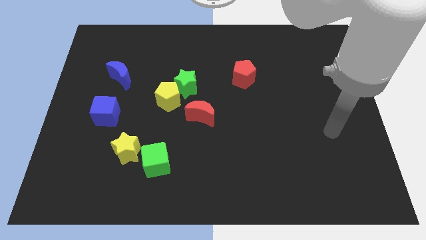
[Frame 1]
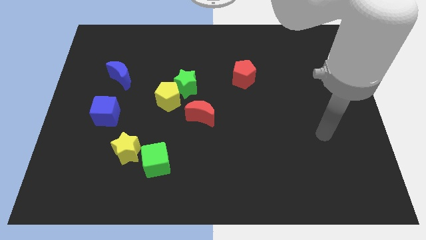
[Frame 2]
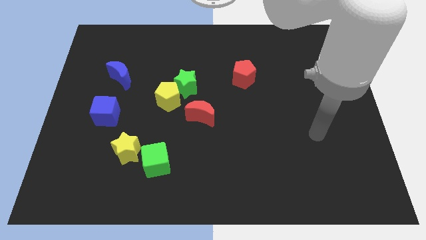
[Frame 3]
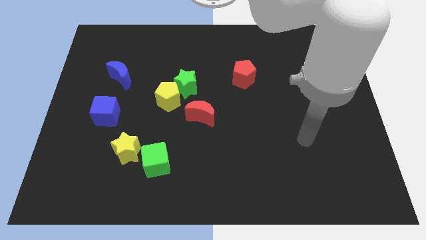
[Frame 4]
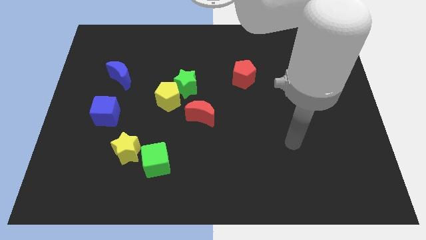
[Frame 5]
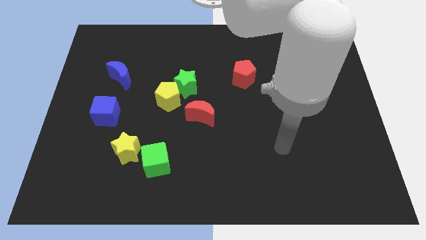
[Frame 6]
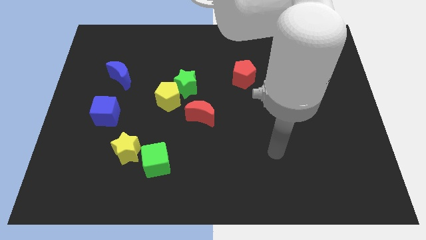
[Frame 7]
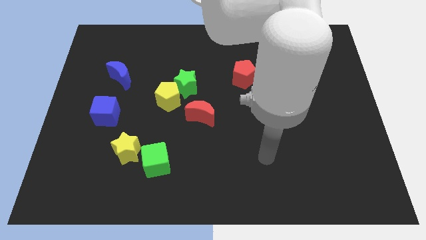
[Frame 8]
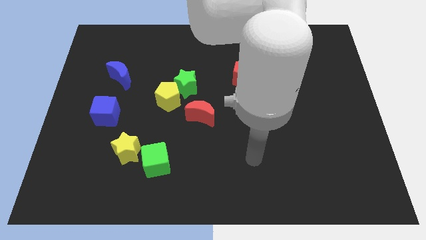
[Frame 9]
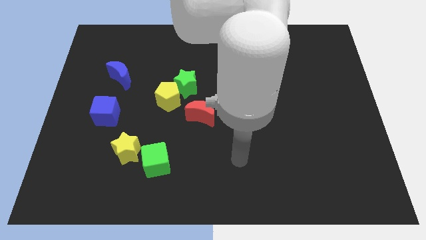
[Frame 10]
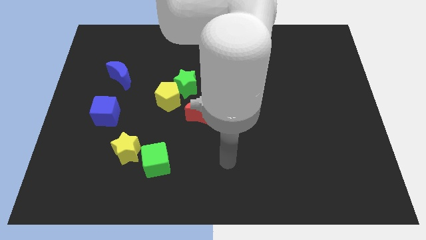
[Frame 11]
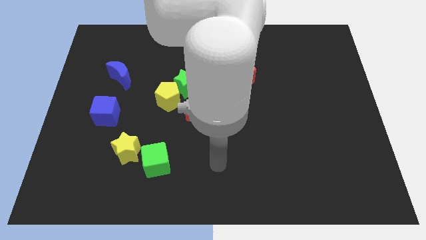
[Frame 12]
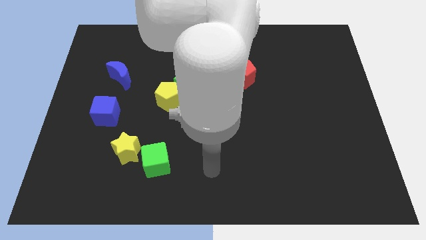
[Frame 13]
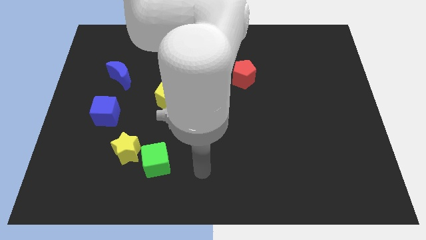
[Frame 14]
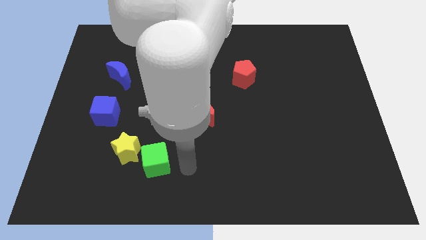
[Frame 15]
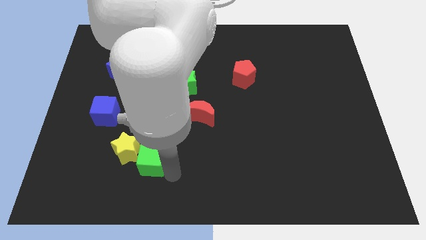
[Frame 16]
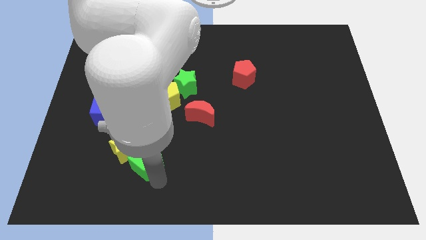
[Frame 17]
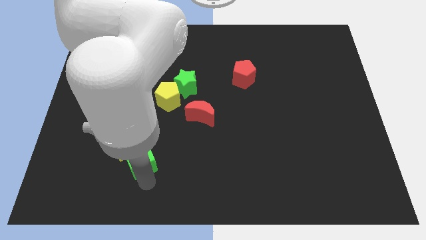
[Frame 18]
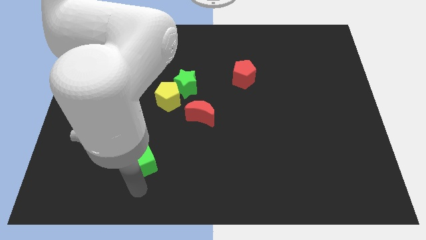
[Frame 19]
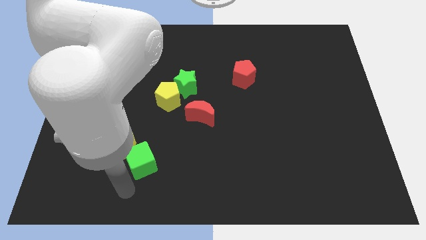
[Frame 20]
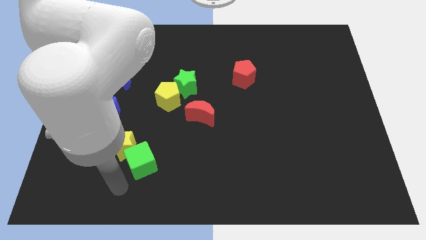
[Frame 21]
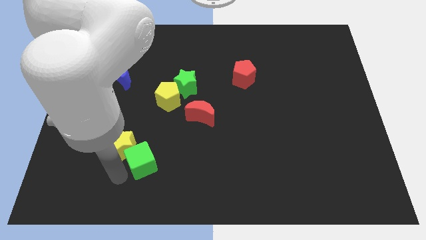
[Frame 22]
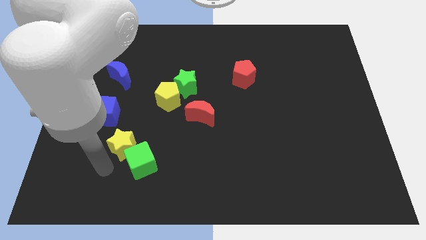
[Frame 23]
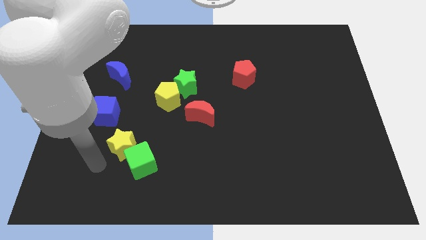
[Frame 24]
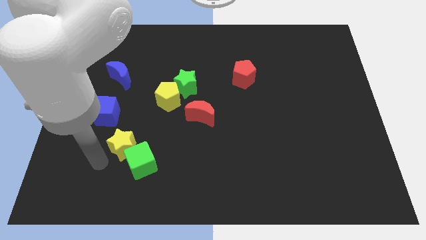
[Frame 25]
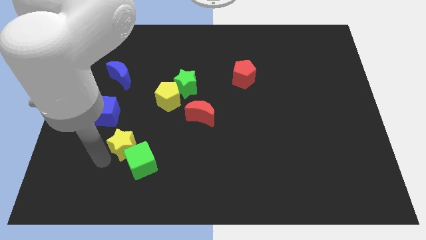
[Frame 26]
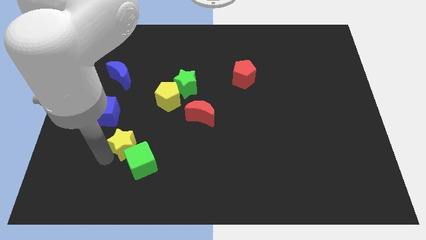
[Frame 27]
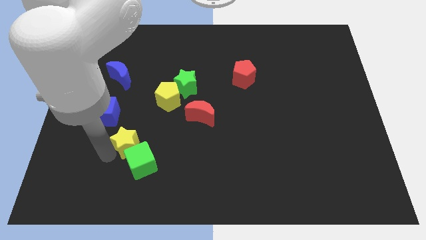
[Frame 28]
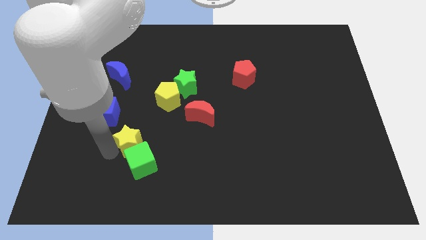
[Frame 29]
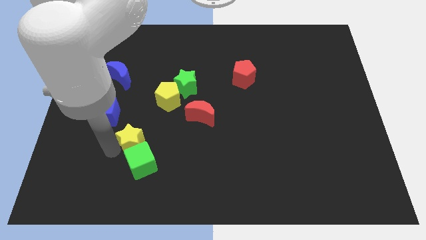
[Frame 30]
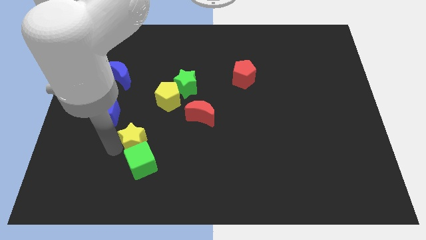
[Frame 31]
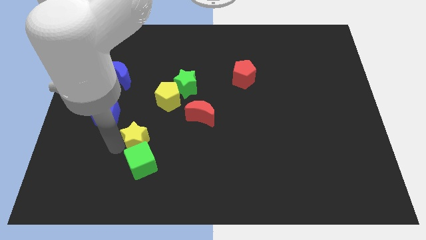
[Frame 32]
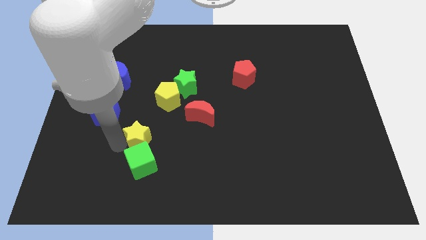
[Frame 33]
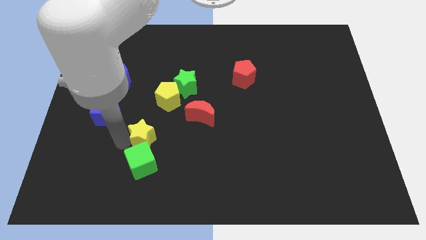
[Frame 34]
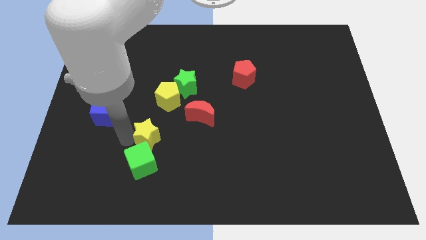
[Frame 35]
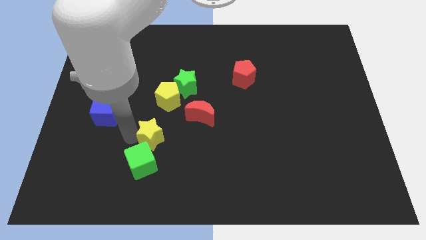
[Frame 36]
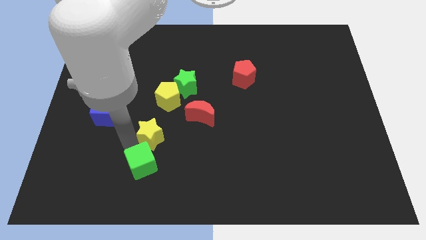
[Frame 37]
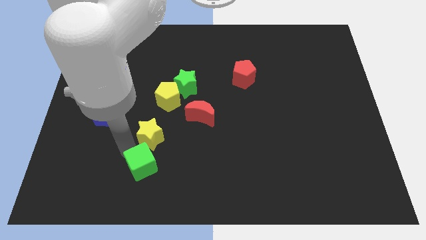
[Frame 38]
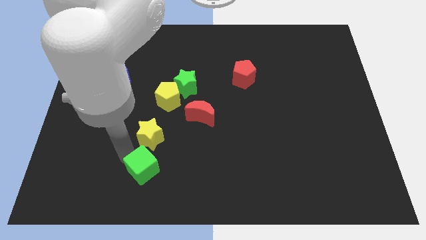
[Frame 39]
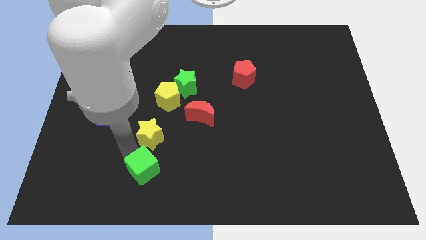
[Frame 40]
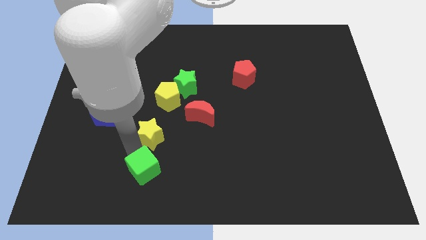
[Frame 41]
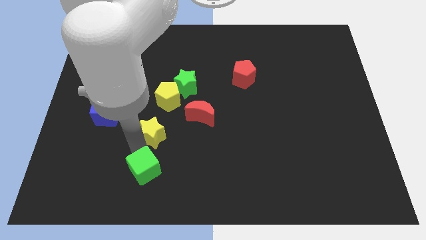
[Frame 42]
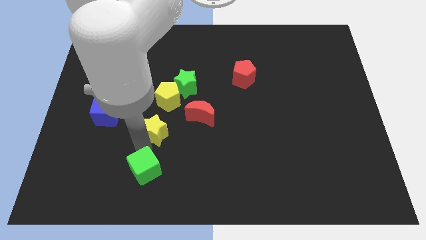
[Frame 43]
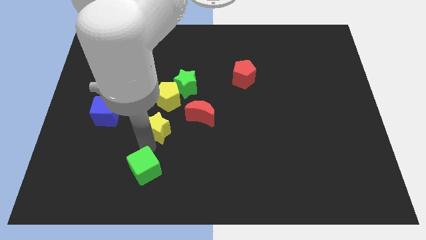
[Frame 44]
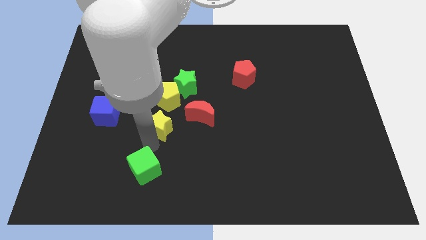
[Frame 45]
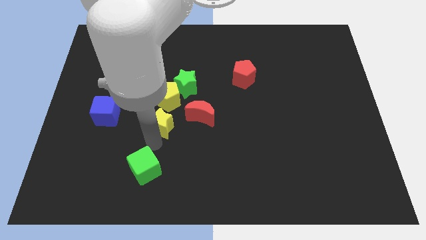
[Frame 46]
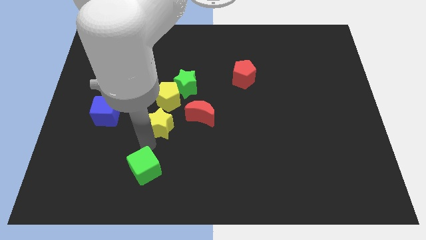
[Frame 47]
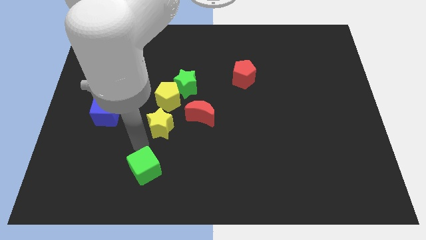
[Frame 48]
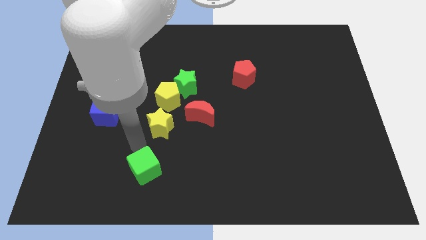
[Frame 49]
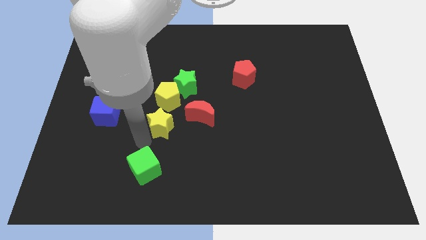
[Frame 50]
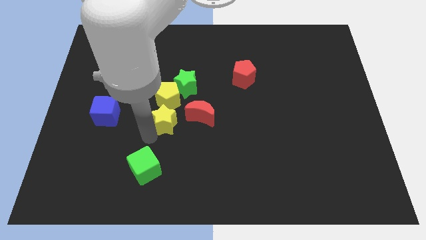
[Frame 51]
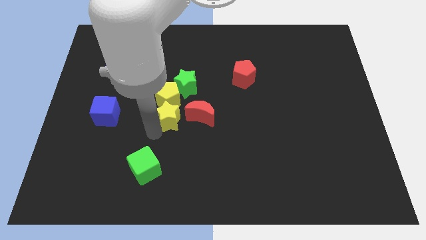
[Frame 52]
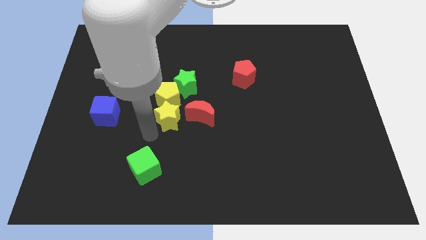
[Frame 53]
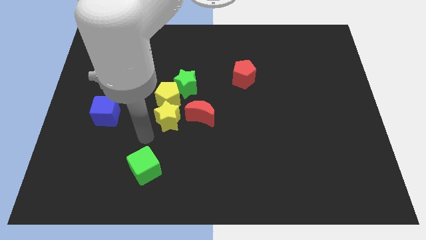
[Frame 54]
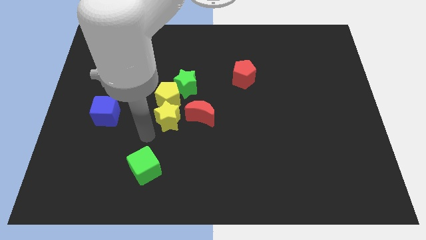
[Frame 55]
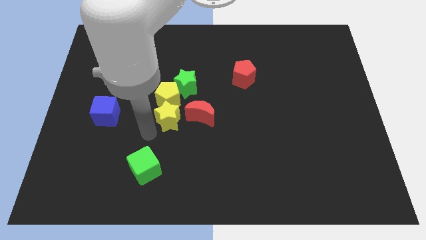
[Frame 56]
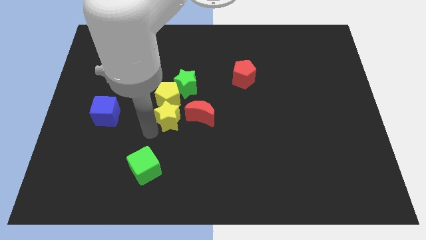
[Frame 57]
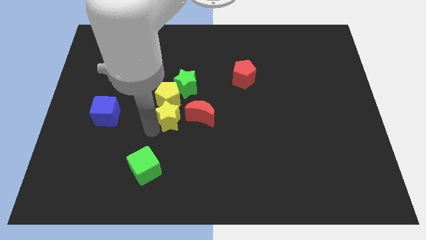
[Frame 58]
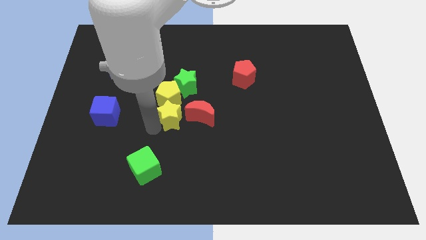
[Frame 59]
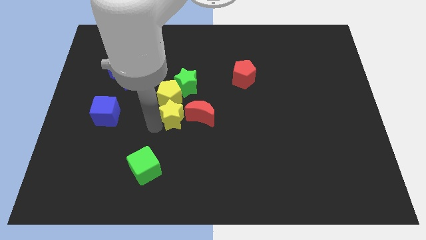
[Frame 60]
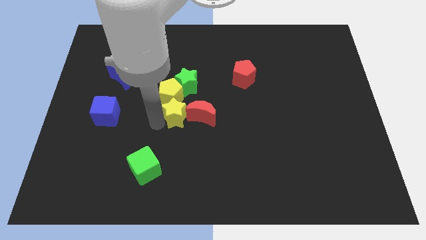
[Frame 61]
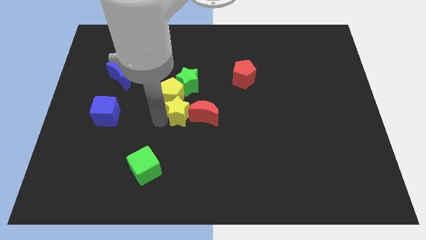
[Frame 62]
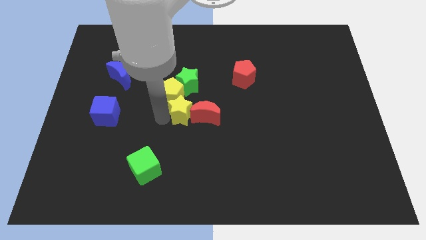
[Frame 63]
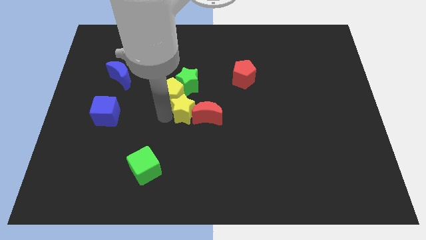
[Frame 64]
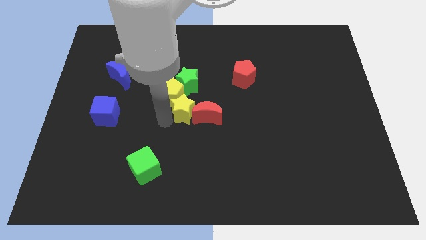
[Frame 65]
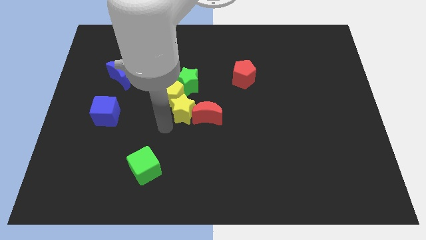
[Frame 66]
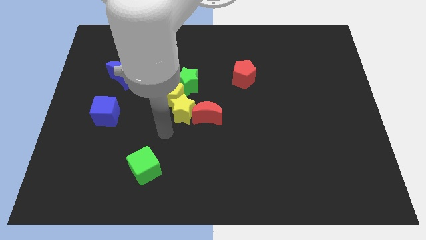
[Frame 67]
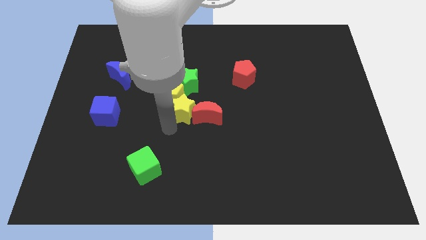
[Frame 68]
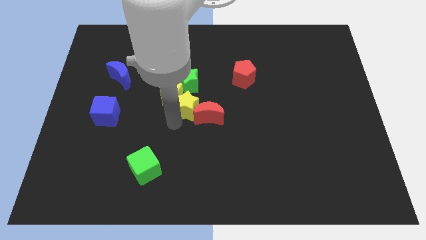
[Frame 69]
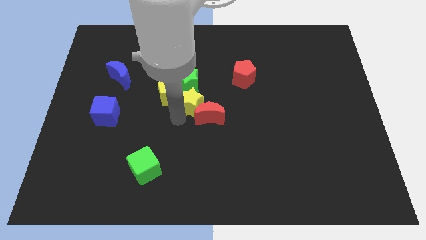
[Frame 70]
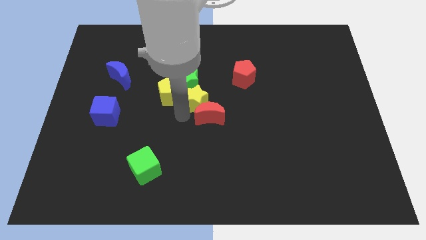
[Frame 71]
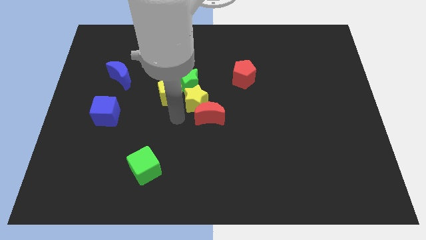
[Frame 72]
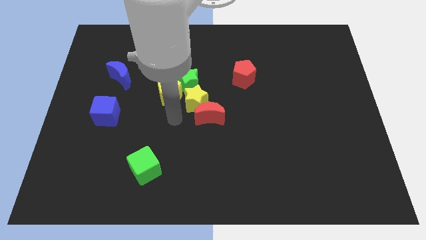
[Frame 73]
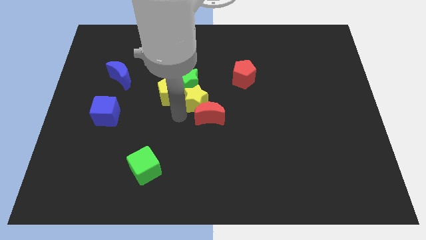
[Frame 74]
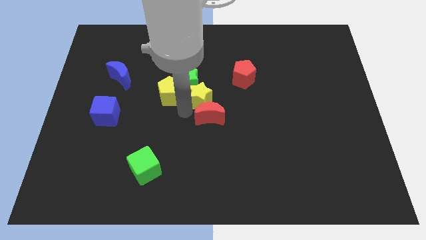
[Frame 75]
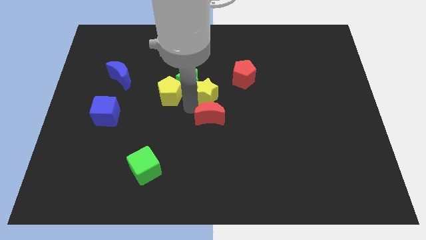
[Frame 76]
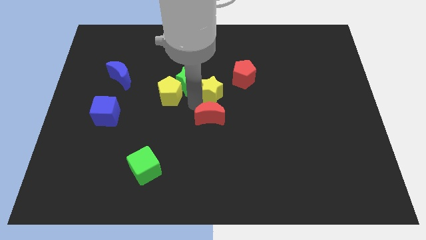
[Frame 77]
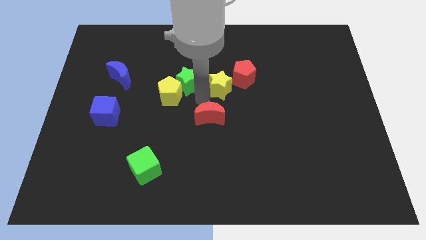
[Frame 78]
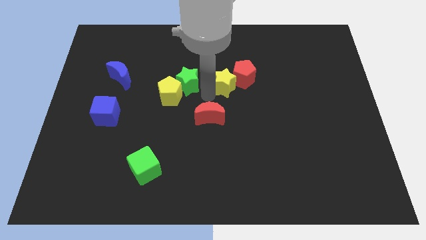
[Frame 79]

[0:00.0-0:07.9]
push the yellow star to the red pentagon
